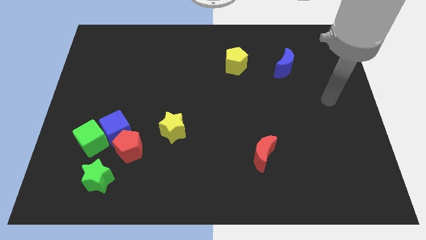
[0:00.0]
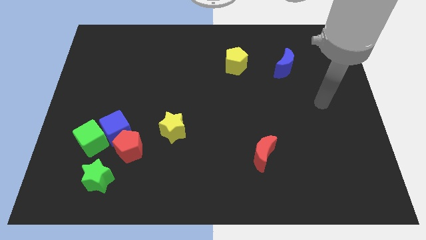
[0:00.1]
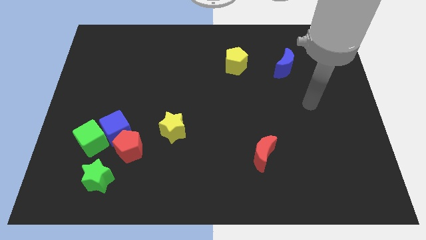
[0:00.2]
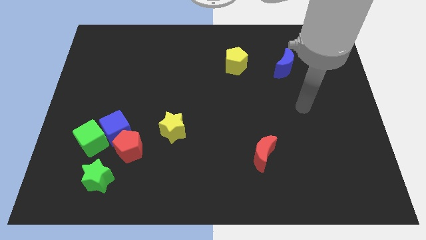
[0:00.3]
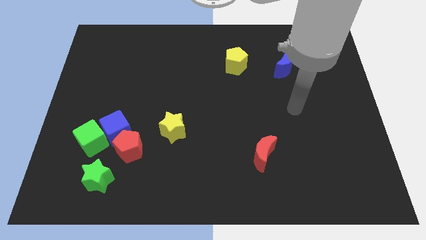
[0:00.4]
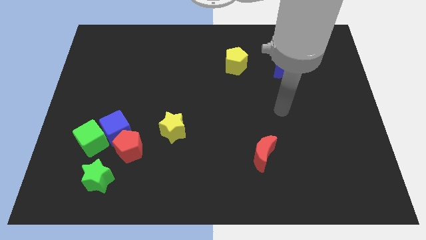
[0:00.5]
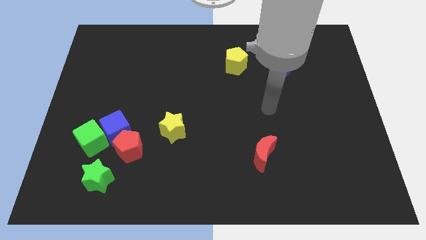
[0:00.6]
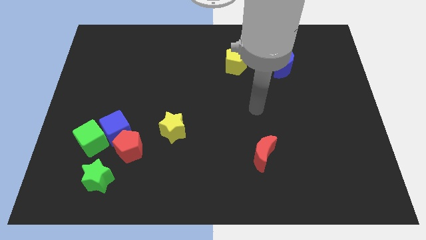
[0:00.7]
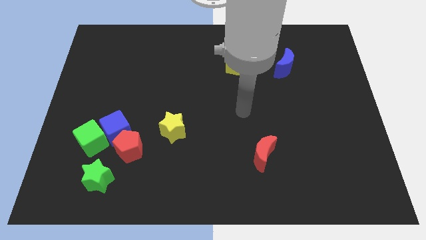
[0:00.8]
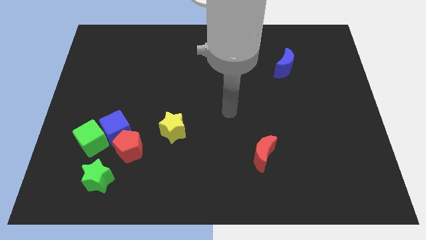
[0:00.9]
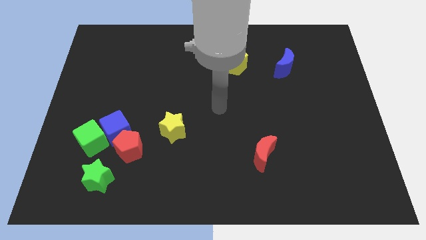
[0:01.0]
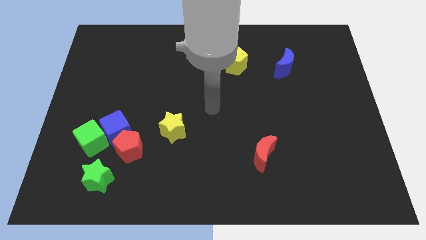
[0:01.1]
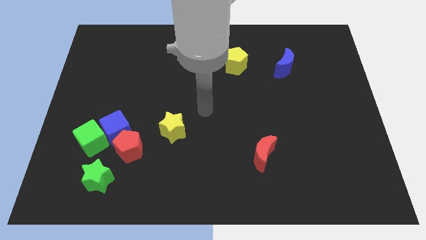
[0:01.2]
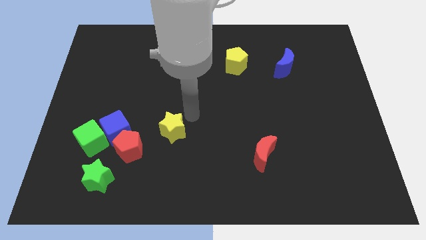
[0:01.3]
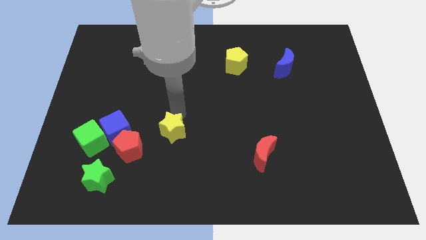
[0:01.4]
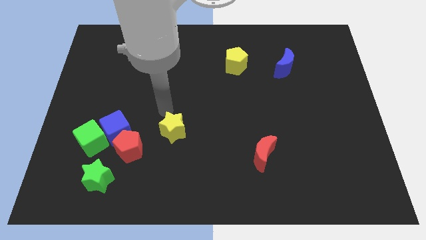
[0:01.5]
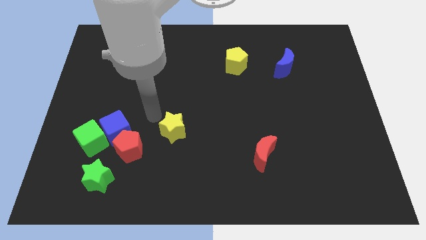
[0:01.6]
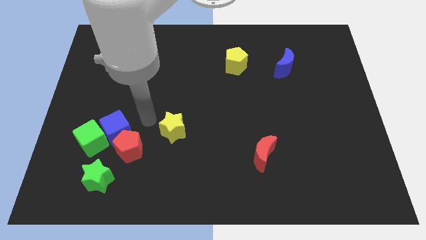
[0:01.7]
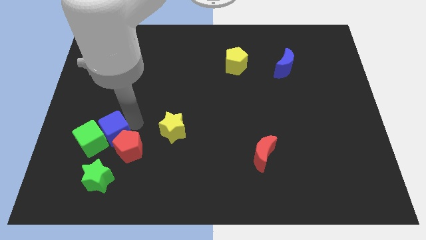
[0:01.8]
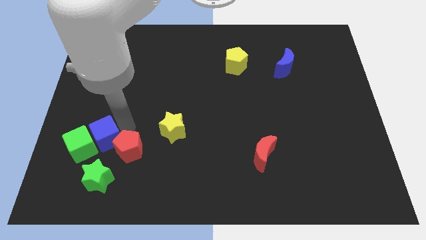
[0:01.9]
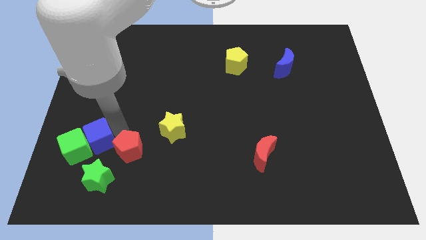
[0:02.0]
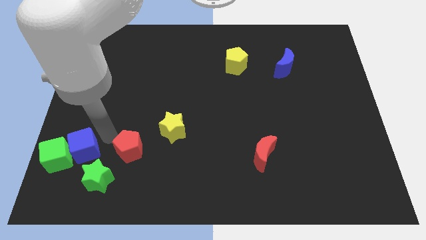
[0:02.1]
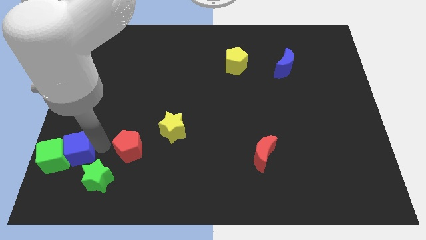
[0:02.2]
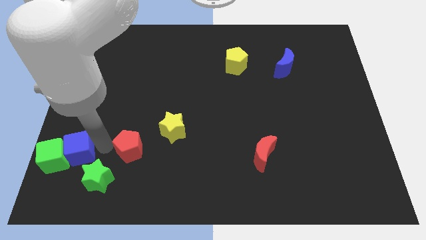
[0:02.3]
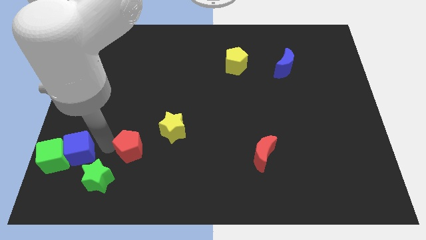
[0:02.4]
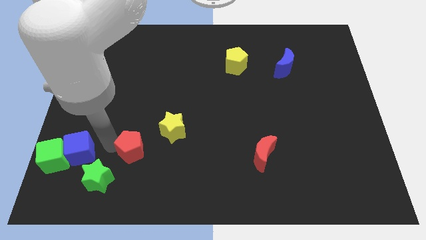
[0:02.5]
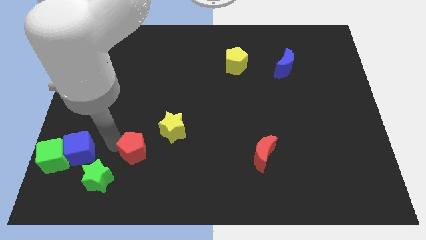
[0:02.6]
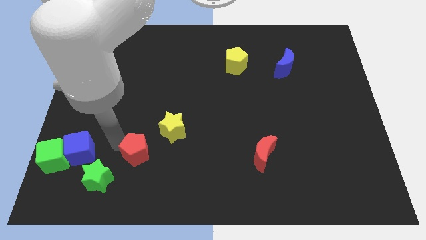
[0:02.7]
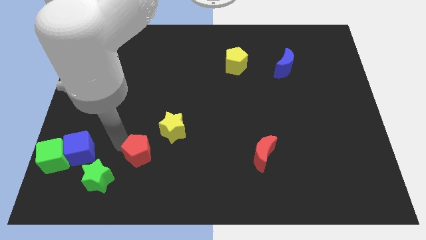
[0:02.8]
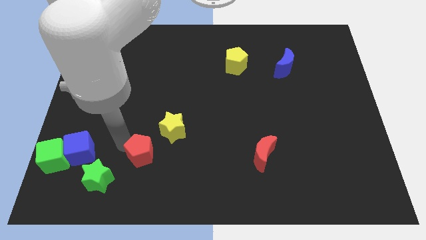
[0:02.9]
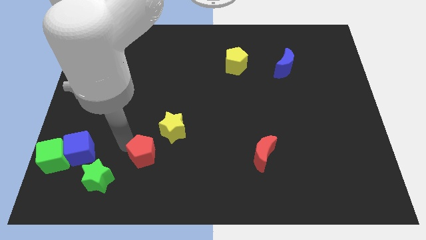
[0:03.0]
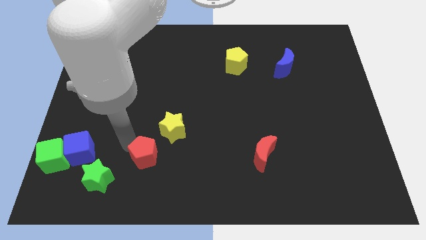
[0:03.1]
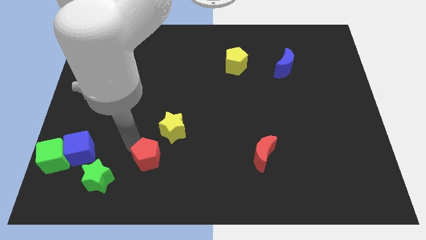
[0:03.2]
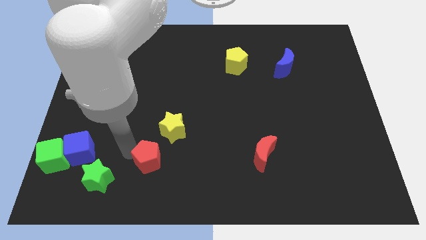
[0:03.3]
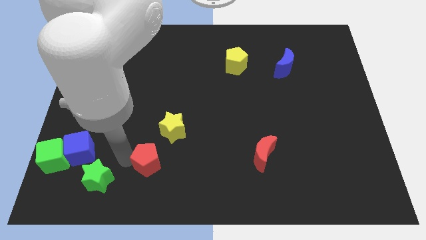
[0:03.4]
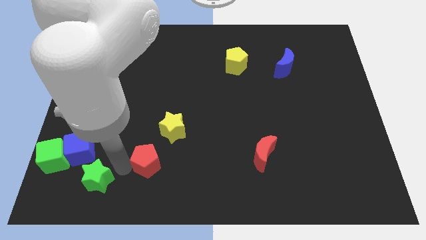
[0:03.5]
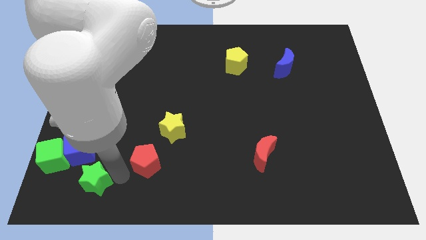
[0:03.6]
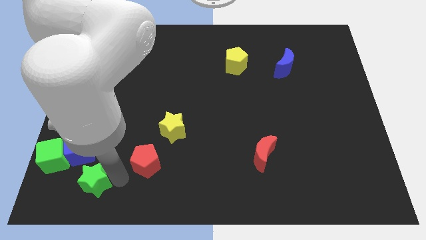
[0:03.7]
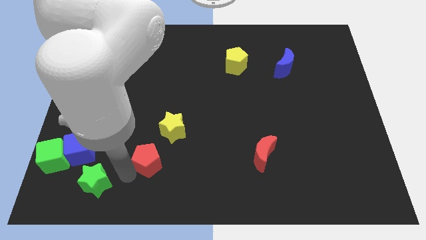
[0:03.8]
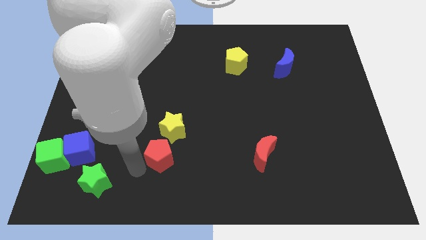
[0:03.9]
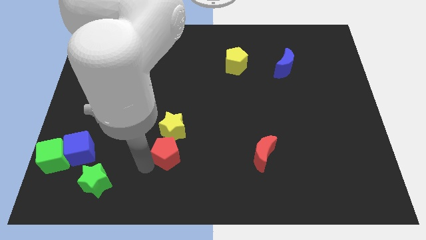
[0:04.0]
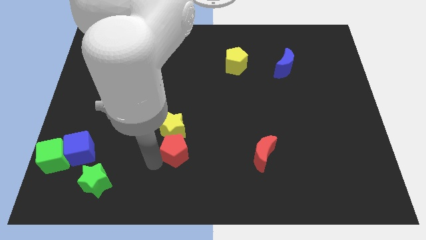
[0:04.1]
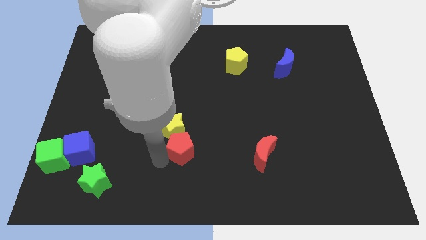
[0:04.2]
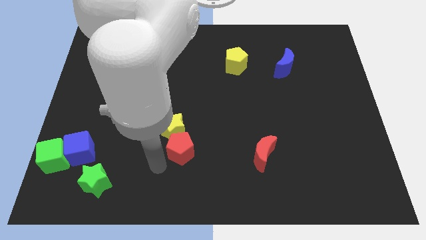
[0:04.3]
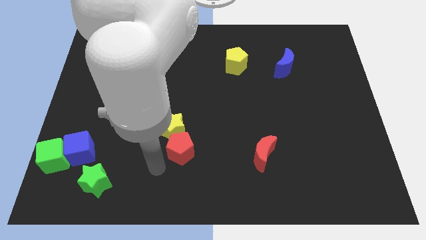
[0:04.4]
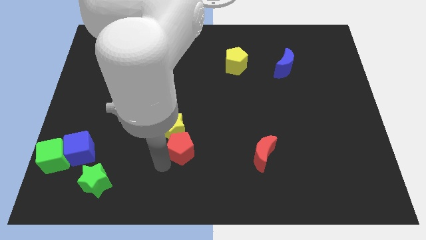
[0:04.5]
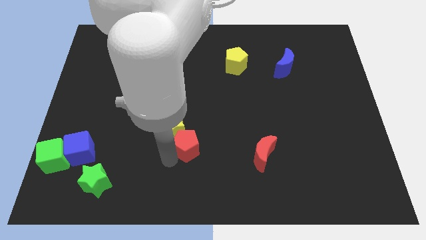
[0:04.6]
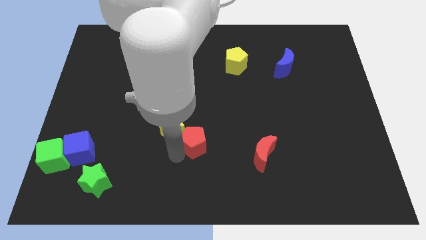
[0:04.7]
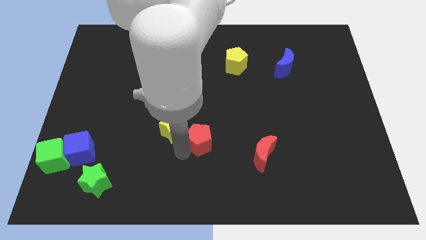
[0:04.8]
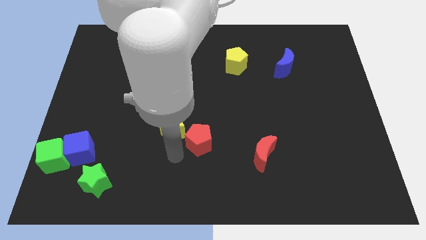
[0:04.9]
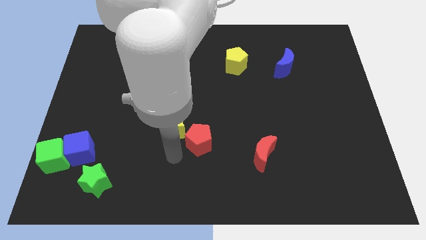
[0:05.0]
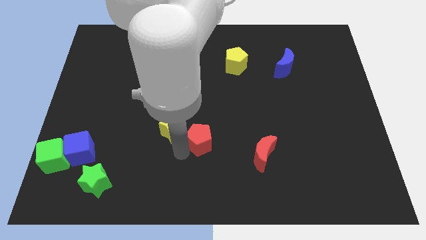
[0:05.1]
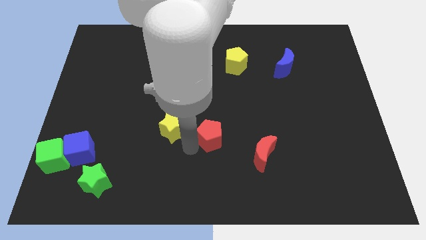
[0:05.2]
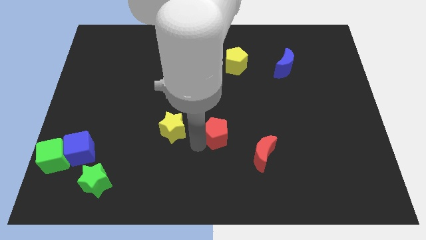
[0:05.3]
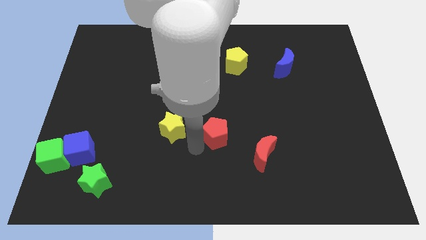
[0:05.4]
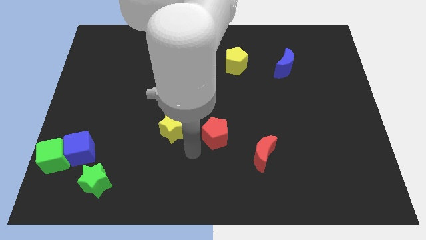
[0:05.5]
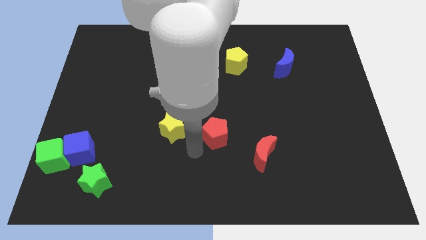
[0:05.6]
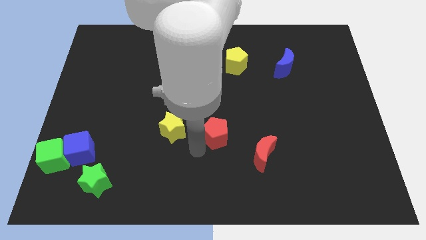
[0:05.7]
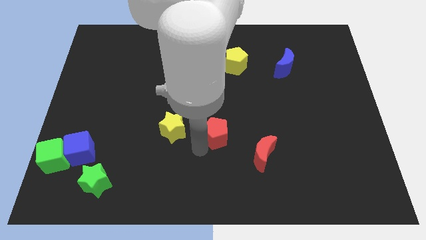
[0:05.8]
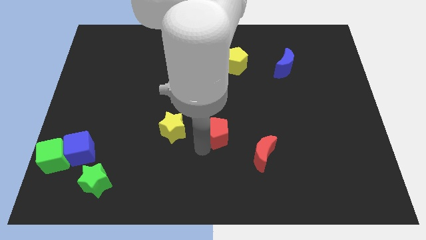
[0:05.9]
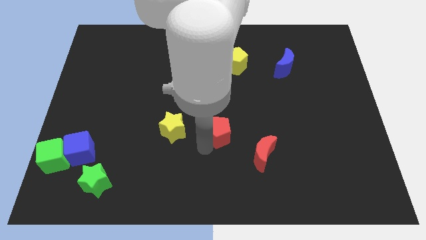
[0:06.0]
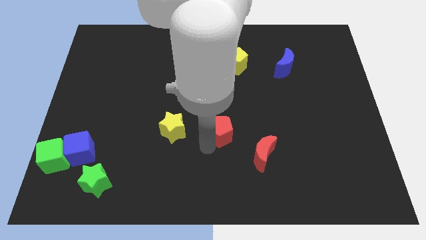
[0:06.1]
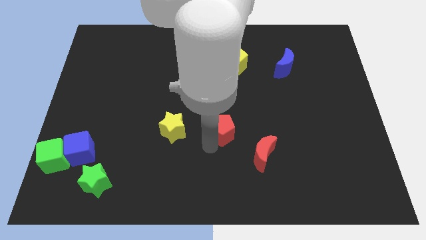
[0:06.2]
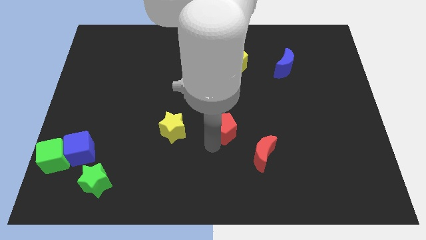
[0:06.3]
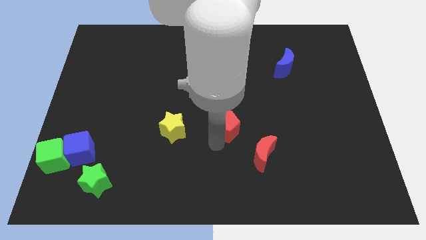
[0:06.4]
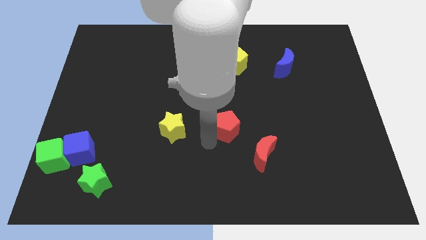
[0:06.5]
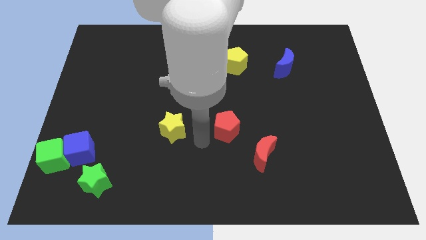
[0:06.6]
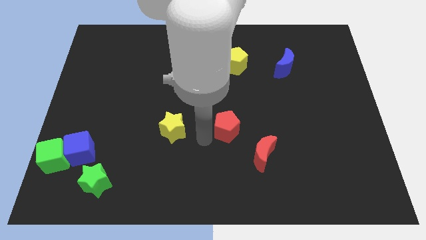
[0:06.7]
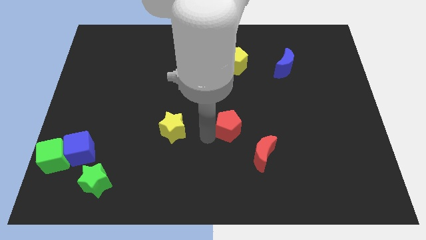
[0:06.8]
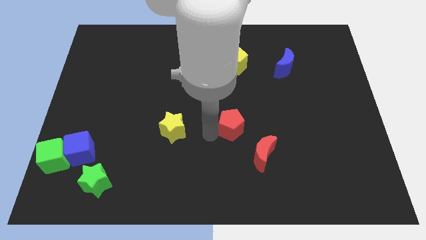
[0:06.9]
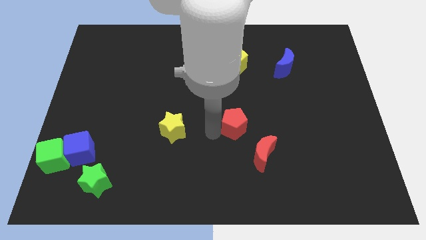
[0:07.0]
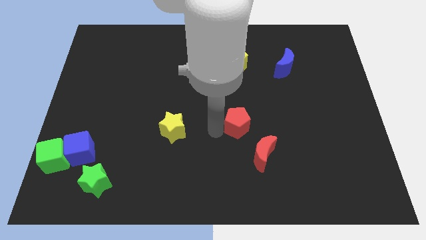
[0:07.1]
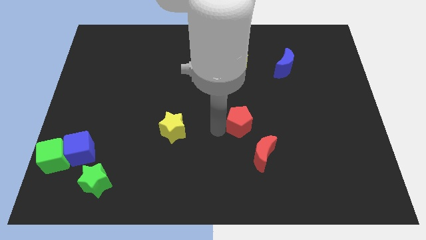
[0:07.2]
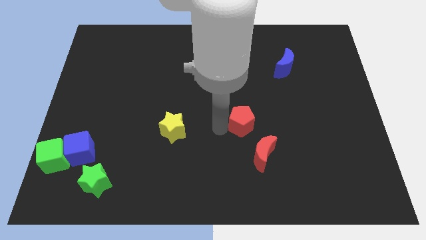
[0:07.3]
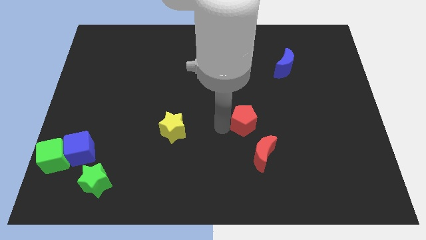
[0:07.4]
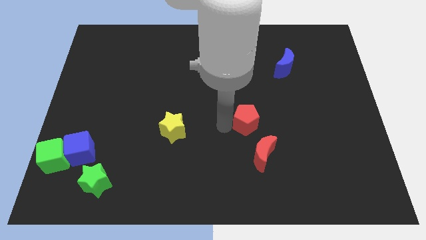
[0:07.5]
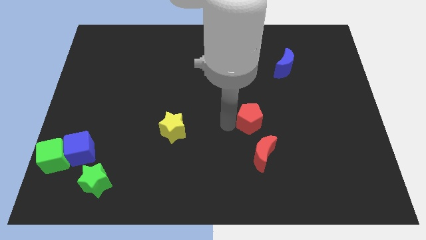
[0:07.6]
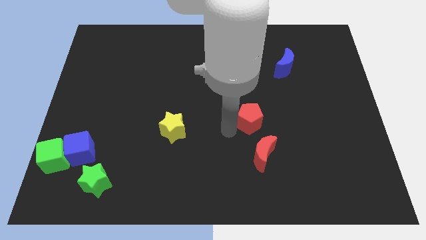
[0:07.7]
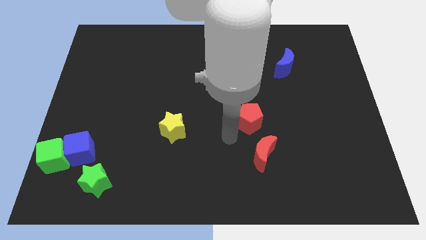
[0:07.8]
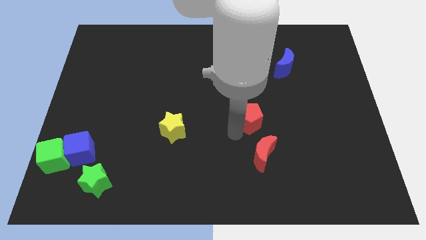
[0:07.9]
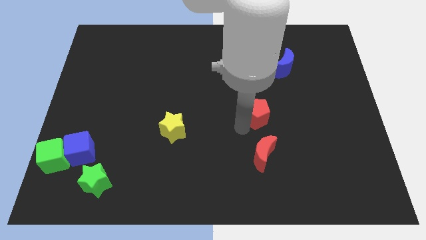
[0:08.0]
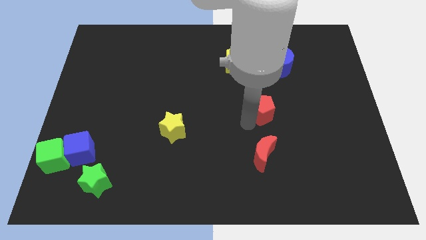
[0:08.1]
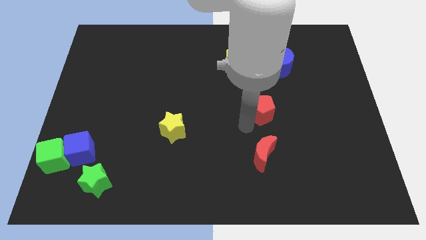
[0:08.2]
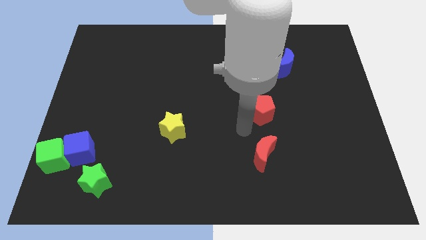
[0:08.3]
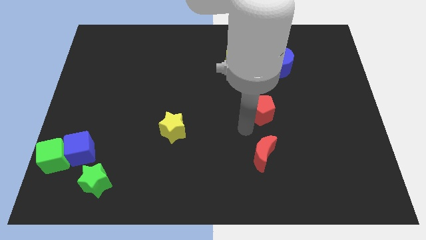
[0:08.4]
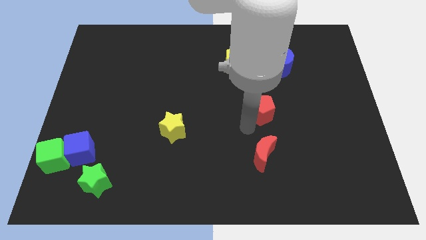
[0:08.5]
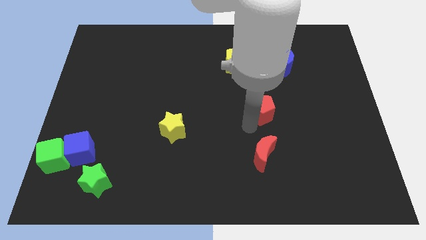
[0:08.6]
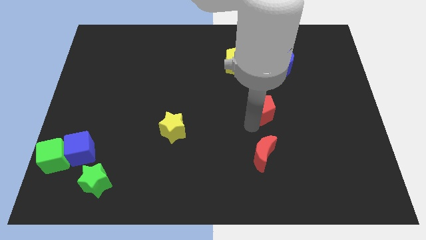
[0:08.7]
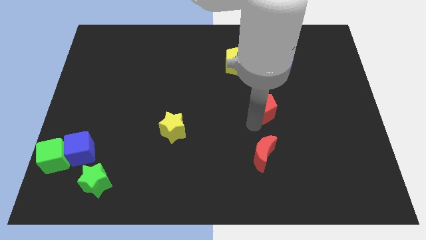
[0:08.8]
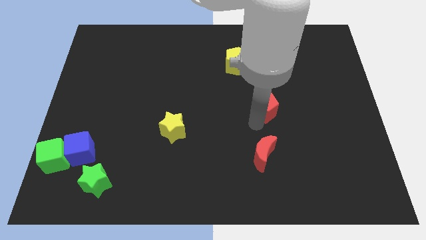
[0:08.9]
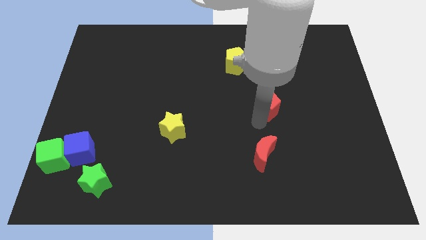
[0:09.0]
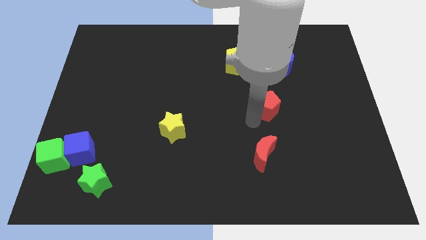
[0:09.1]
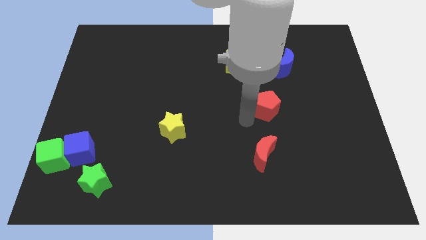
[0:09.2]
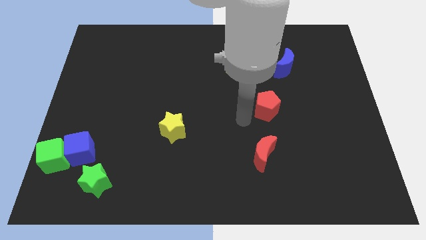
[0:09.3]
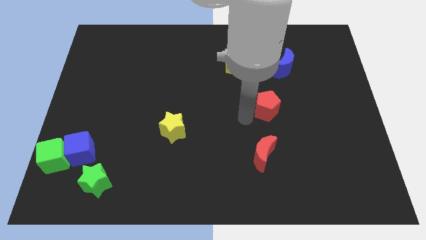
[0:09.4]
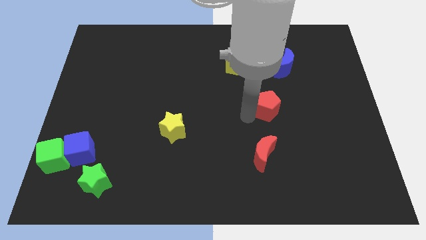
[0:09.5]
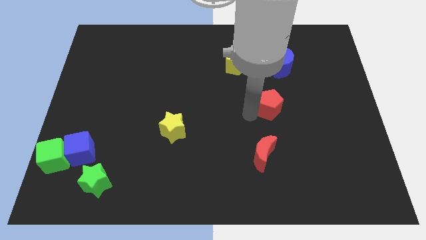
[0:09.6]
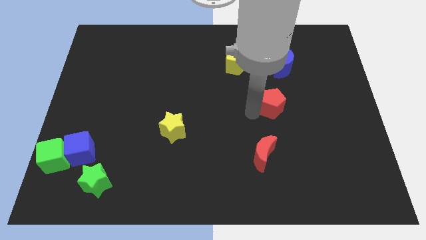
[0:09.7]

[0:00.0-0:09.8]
put the red pentagon to the bottom side of the blue moon
